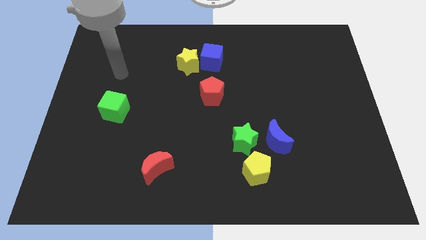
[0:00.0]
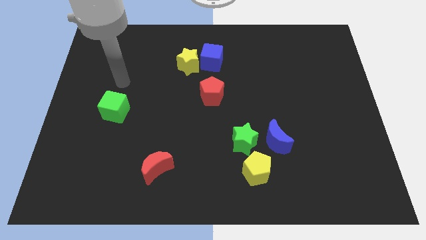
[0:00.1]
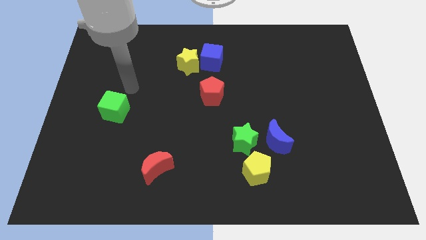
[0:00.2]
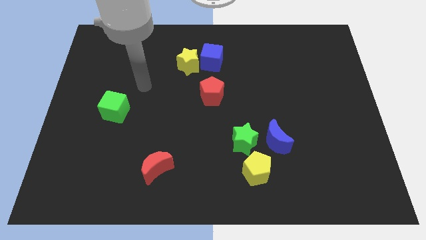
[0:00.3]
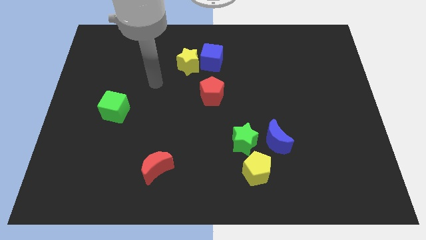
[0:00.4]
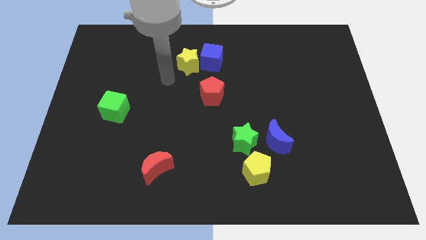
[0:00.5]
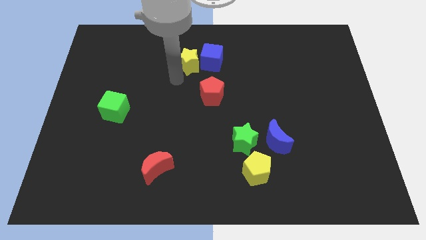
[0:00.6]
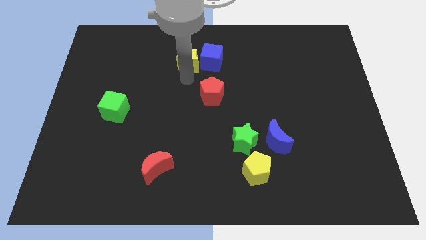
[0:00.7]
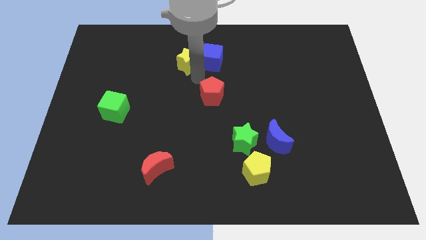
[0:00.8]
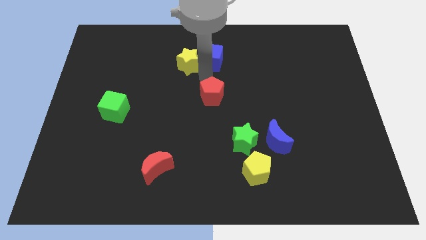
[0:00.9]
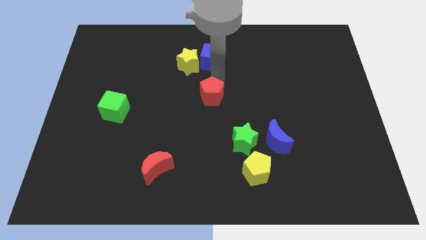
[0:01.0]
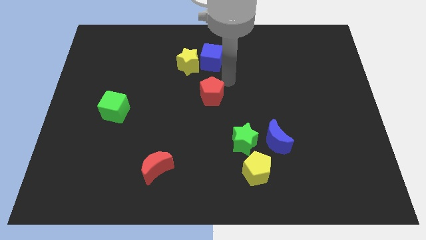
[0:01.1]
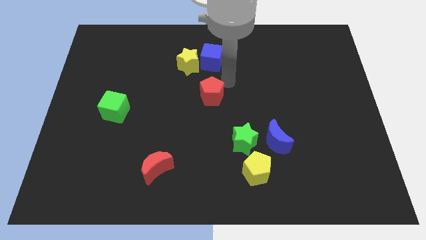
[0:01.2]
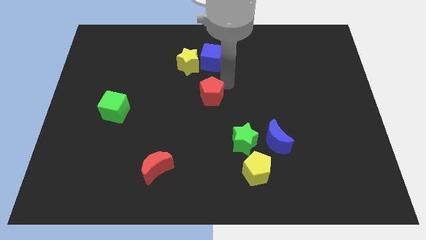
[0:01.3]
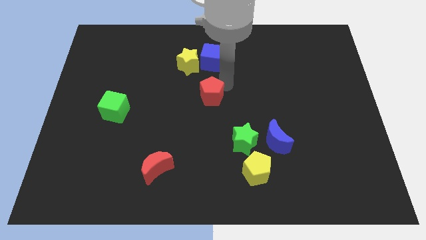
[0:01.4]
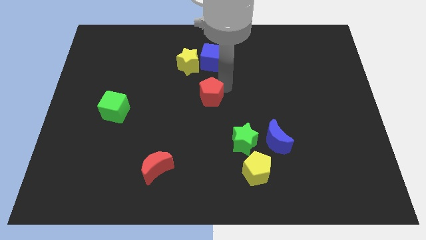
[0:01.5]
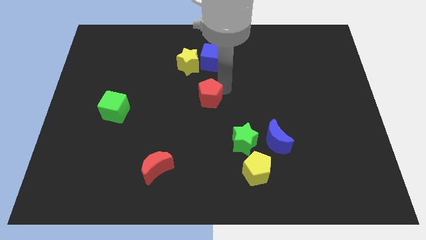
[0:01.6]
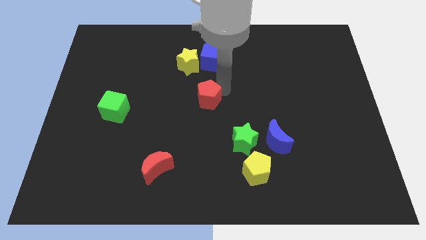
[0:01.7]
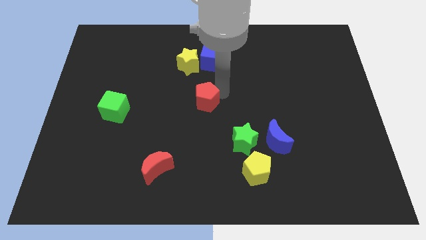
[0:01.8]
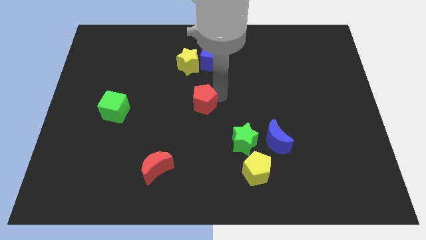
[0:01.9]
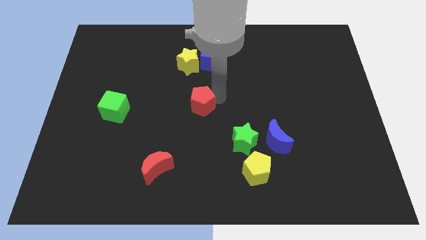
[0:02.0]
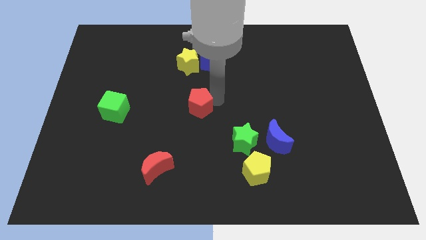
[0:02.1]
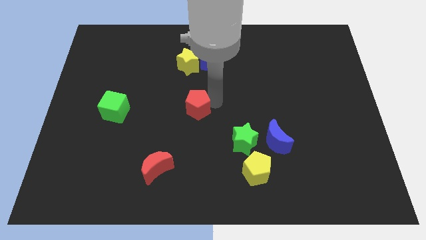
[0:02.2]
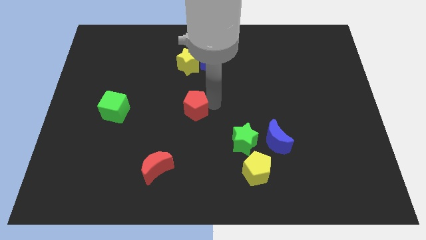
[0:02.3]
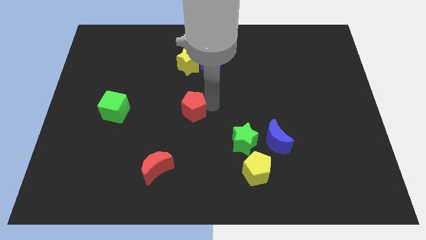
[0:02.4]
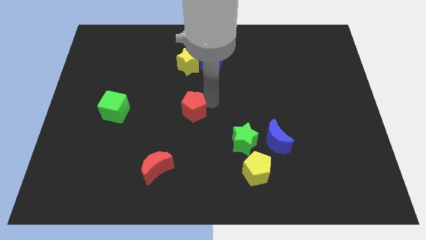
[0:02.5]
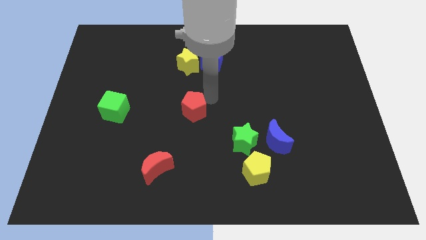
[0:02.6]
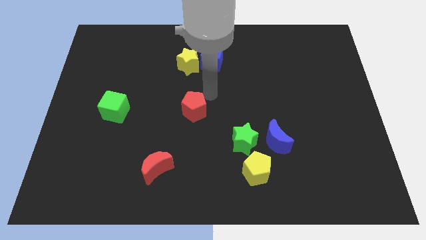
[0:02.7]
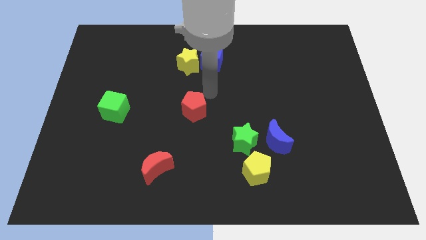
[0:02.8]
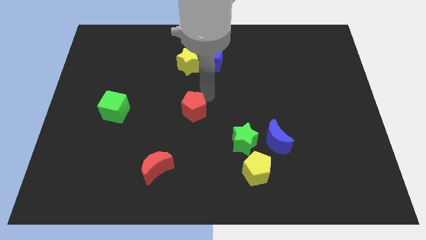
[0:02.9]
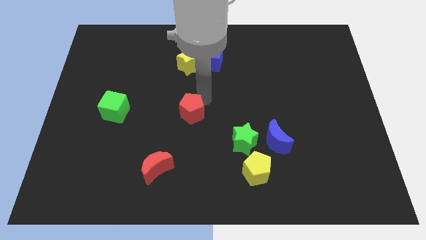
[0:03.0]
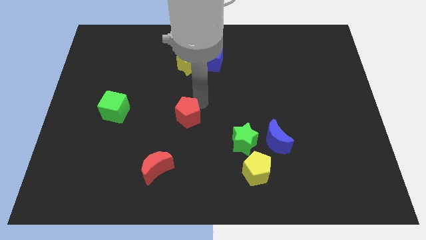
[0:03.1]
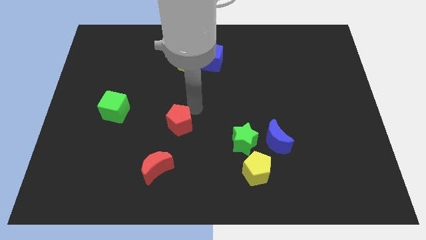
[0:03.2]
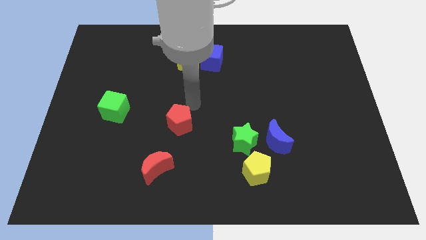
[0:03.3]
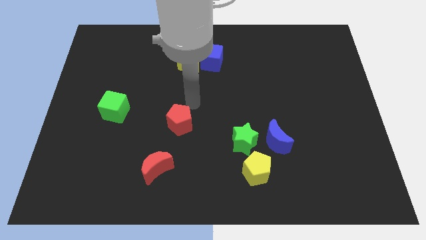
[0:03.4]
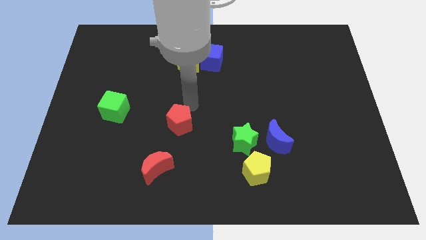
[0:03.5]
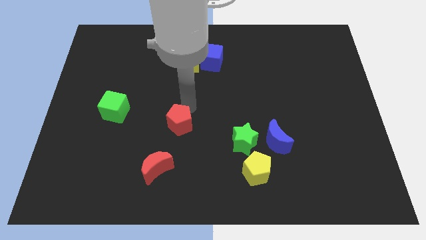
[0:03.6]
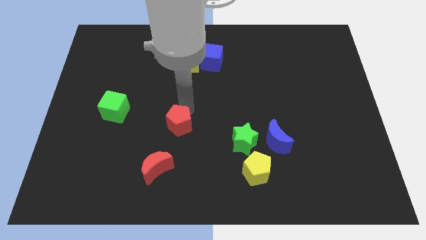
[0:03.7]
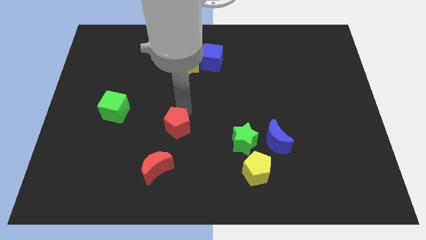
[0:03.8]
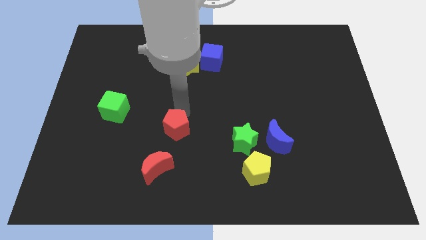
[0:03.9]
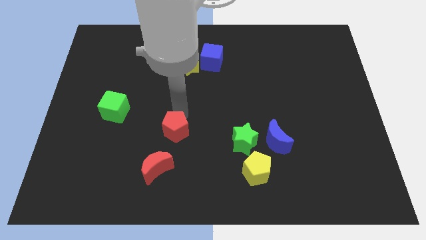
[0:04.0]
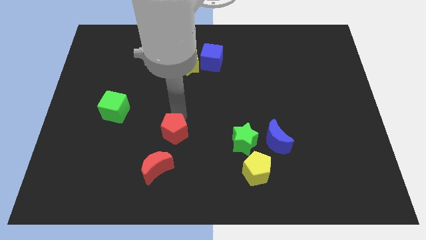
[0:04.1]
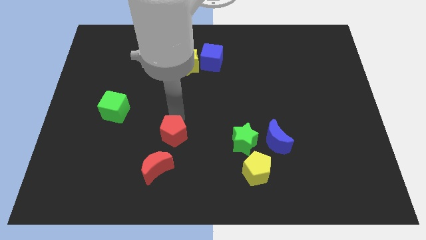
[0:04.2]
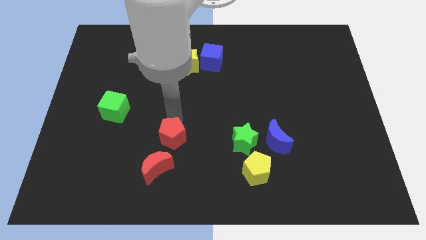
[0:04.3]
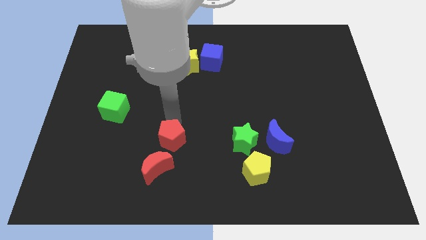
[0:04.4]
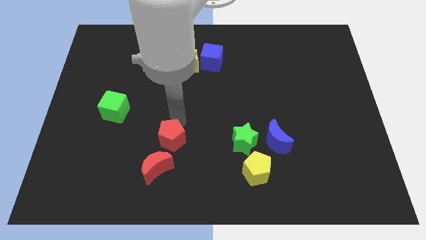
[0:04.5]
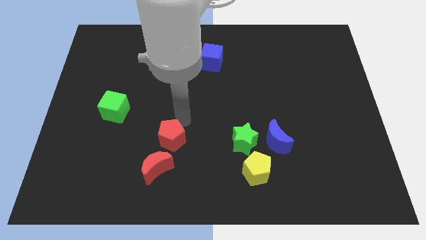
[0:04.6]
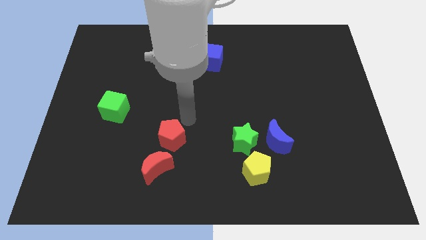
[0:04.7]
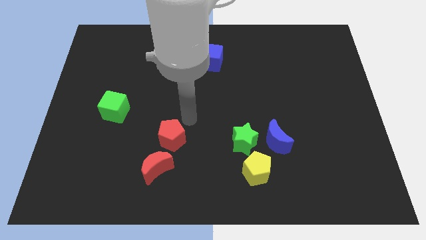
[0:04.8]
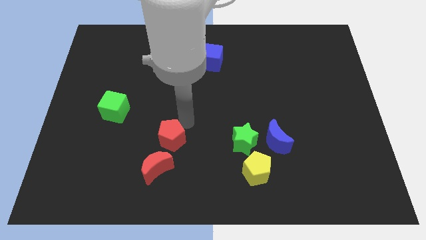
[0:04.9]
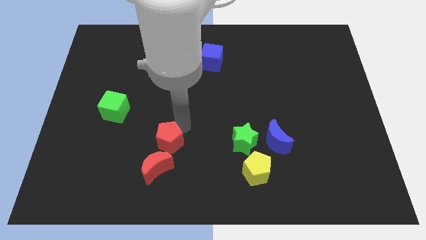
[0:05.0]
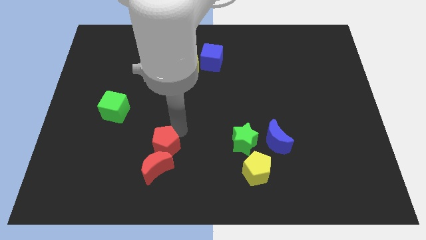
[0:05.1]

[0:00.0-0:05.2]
push the red pentagon towards the red moon

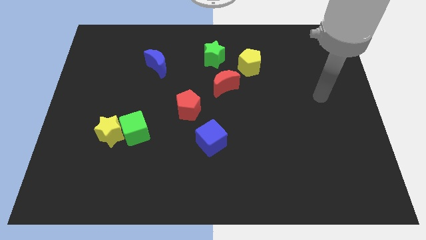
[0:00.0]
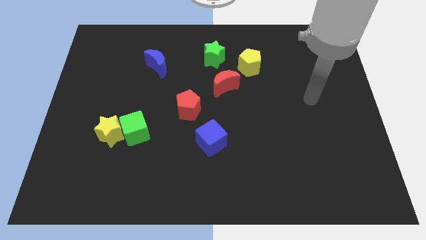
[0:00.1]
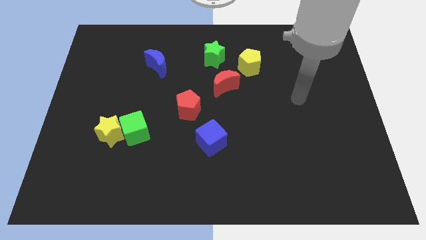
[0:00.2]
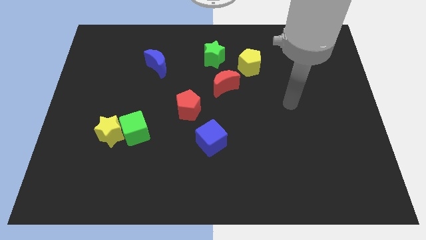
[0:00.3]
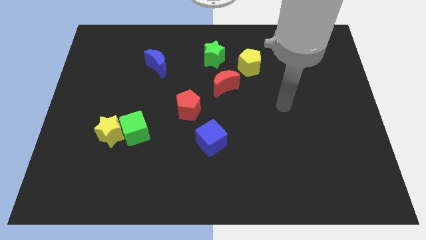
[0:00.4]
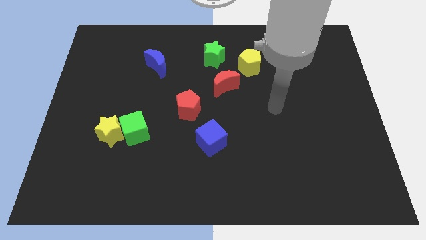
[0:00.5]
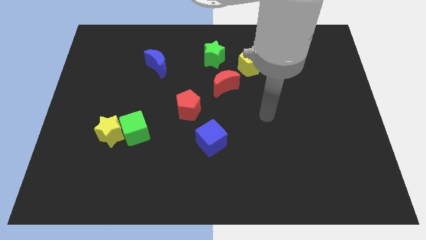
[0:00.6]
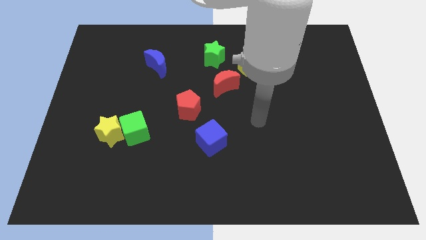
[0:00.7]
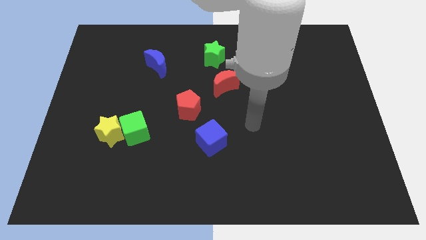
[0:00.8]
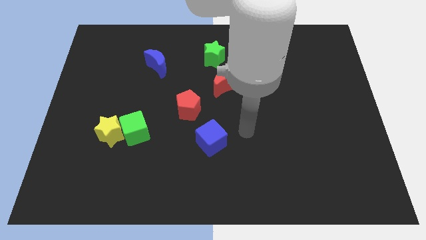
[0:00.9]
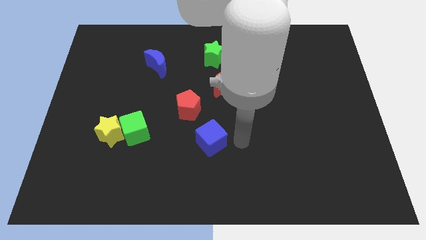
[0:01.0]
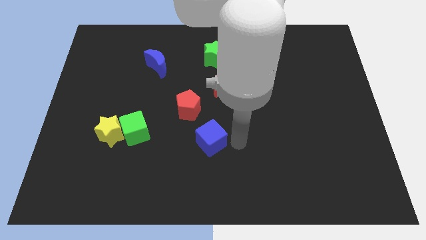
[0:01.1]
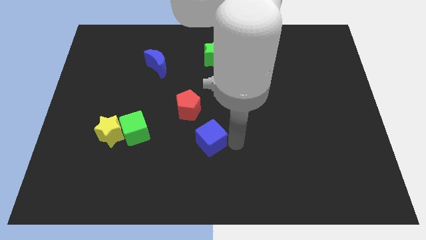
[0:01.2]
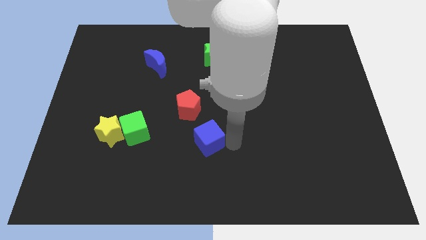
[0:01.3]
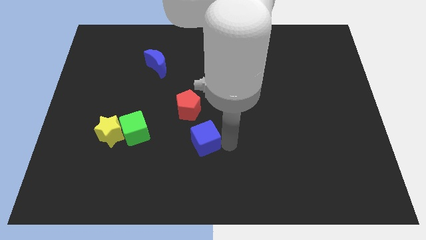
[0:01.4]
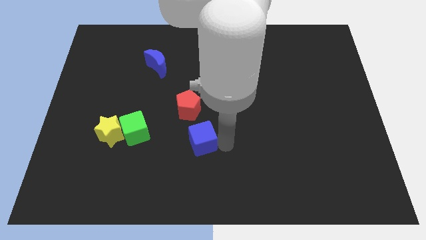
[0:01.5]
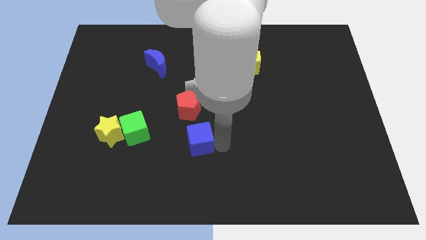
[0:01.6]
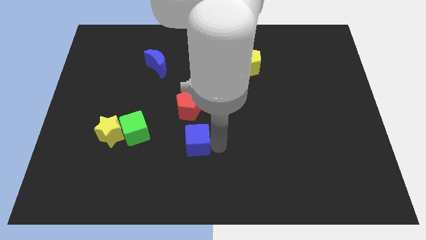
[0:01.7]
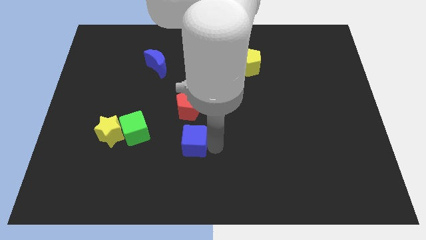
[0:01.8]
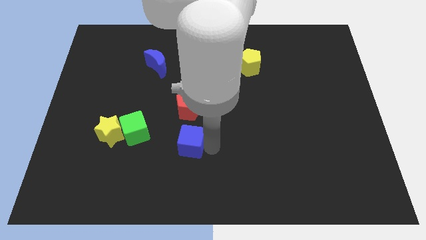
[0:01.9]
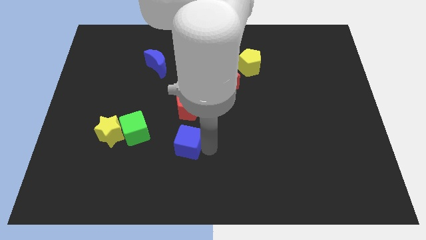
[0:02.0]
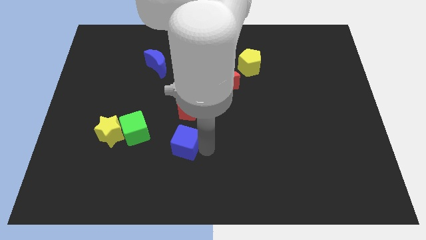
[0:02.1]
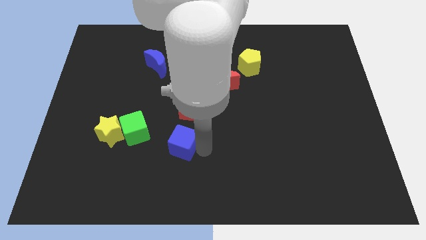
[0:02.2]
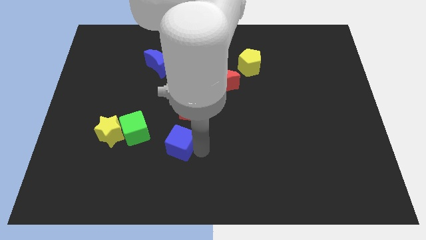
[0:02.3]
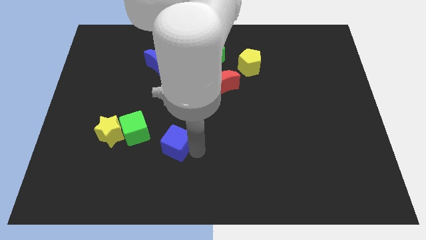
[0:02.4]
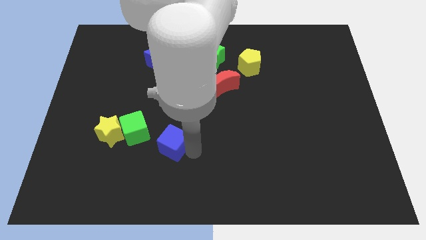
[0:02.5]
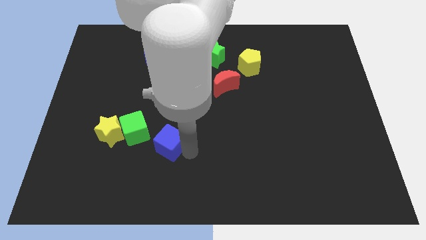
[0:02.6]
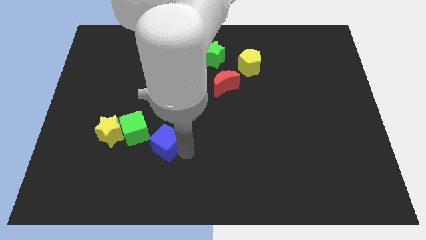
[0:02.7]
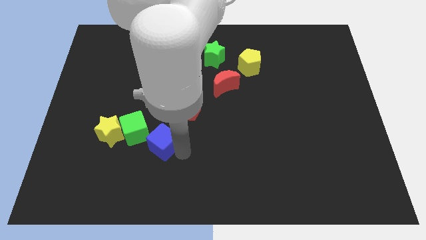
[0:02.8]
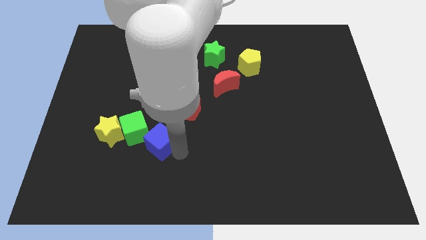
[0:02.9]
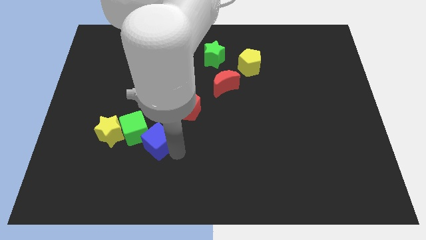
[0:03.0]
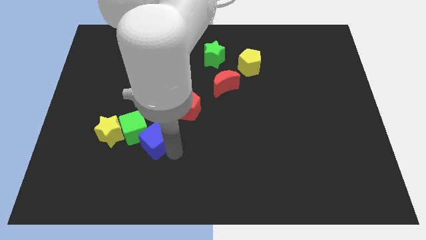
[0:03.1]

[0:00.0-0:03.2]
put the blue cube close to the green cube

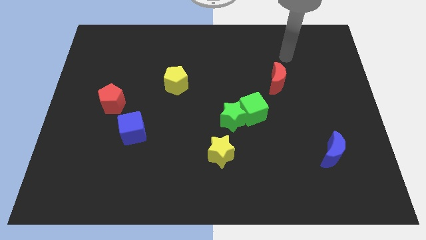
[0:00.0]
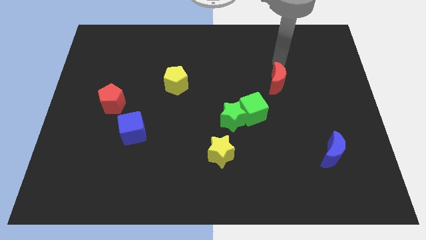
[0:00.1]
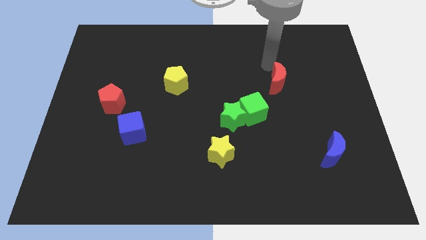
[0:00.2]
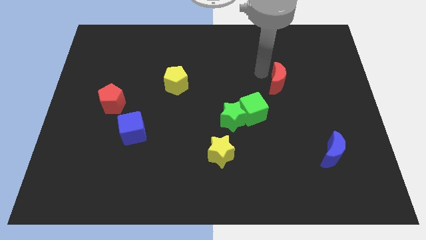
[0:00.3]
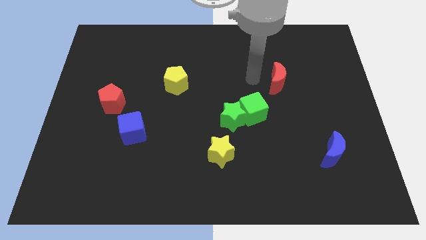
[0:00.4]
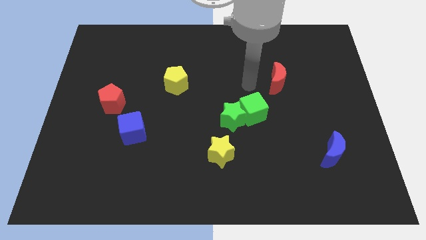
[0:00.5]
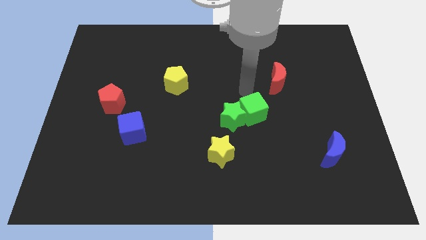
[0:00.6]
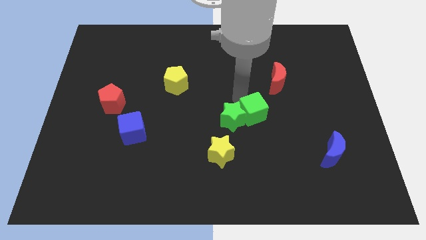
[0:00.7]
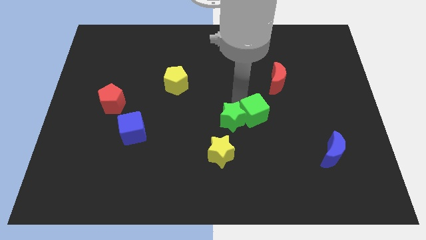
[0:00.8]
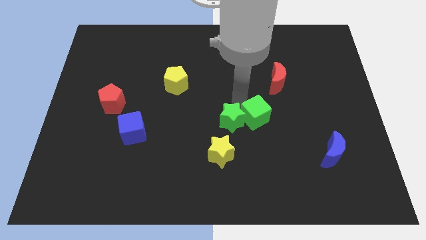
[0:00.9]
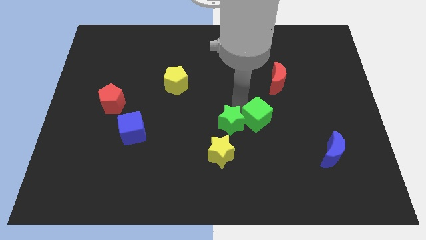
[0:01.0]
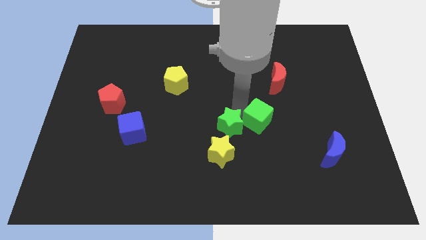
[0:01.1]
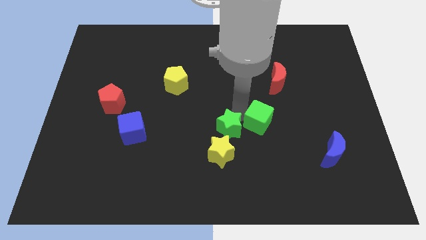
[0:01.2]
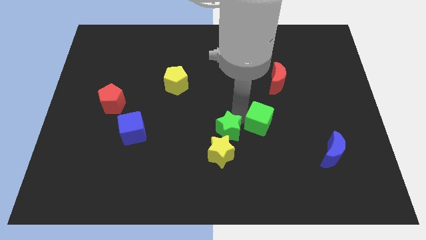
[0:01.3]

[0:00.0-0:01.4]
slide the green star to the yellow star
